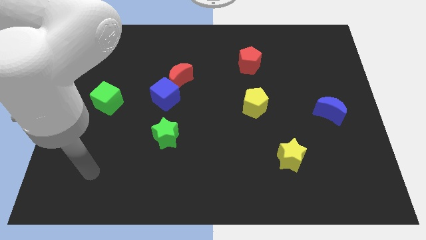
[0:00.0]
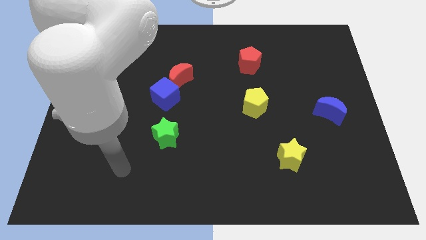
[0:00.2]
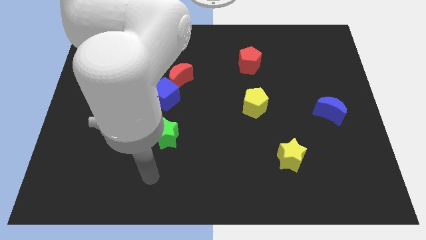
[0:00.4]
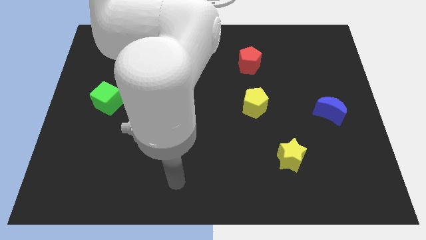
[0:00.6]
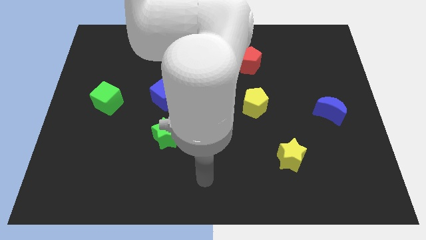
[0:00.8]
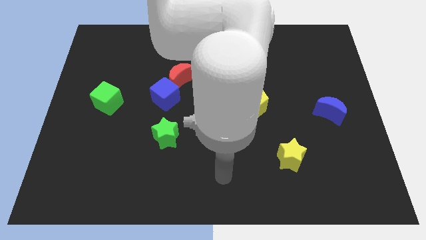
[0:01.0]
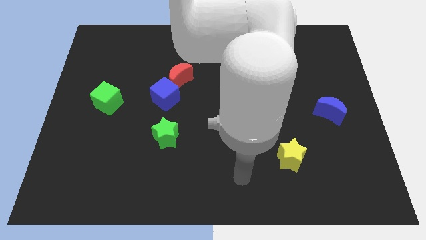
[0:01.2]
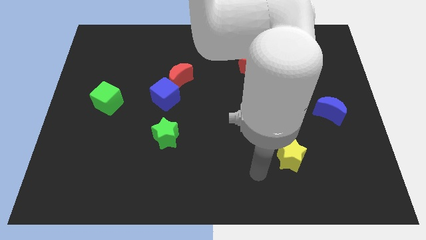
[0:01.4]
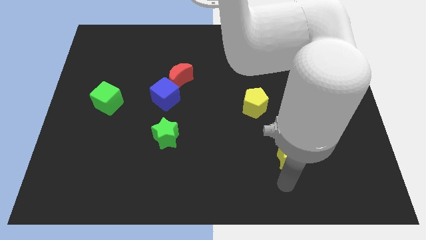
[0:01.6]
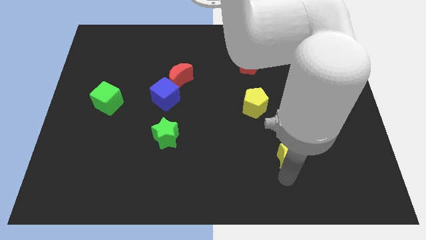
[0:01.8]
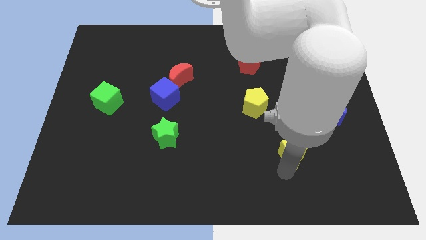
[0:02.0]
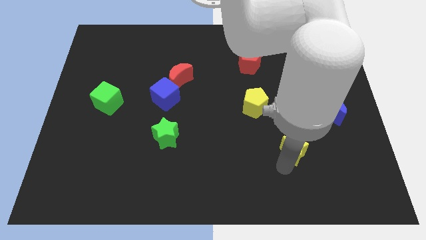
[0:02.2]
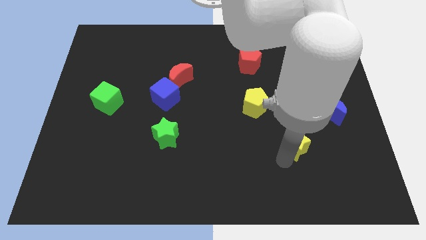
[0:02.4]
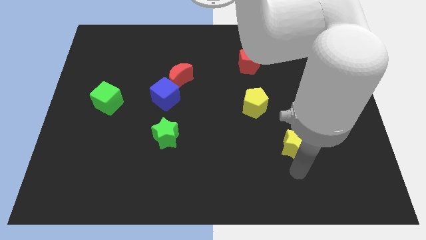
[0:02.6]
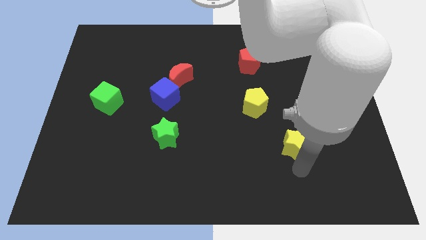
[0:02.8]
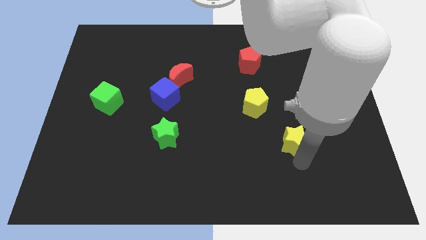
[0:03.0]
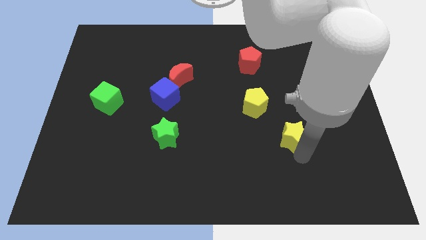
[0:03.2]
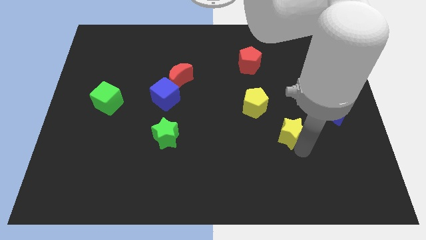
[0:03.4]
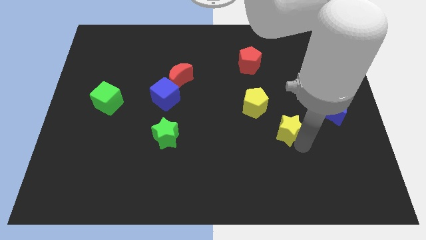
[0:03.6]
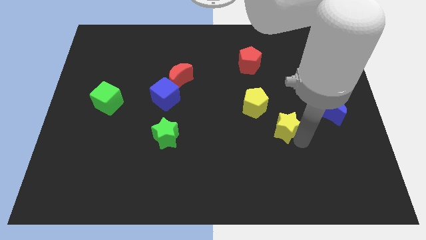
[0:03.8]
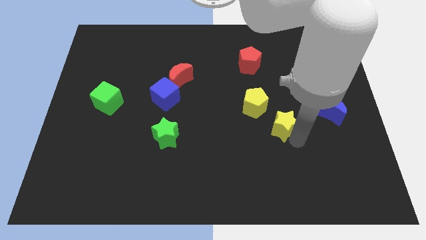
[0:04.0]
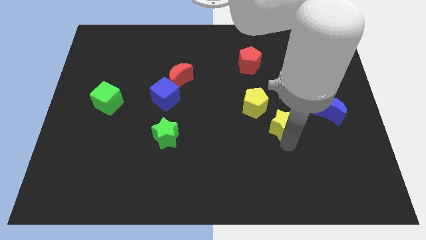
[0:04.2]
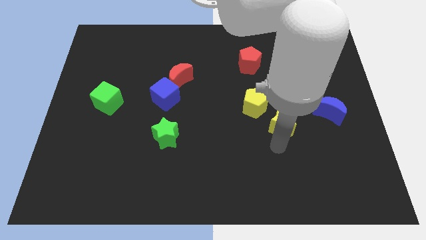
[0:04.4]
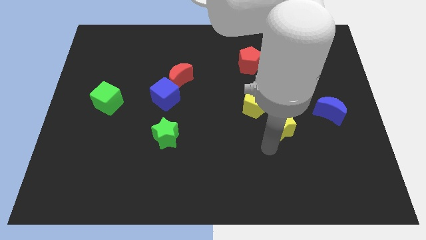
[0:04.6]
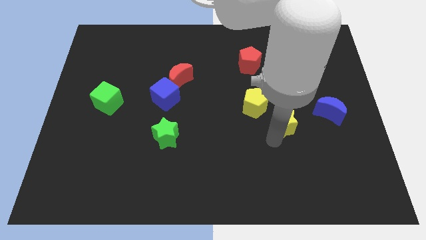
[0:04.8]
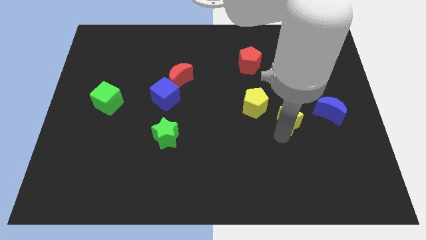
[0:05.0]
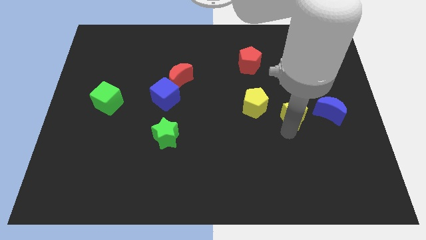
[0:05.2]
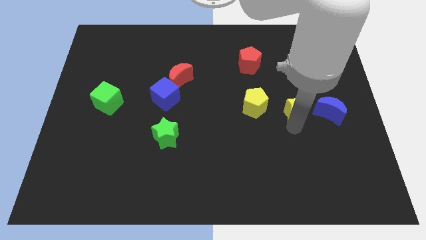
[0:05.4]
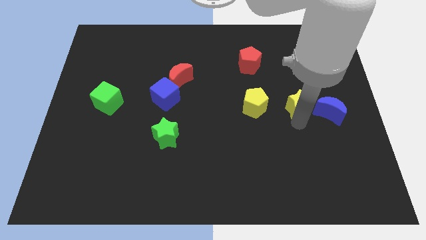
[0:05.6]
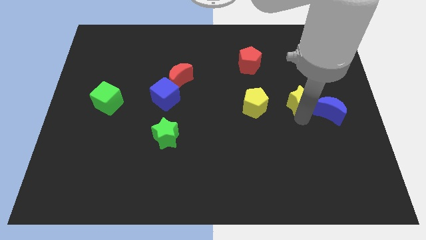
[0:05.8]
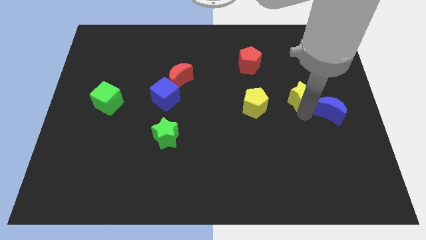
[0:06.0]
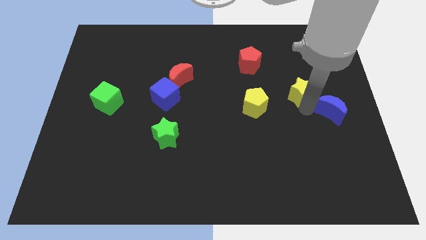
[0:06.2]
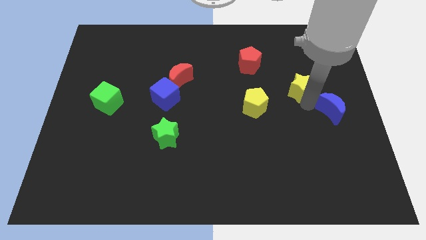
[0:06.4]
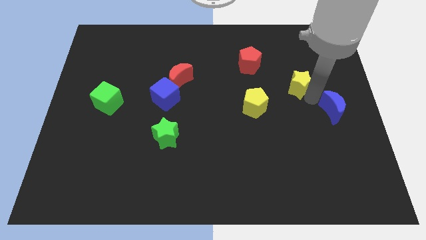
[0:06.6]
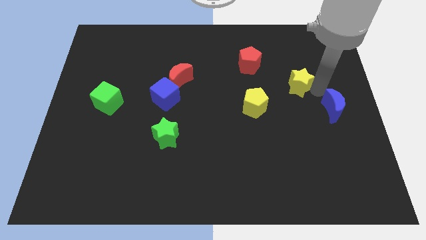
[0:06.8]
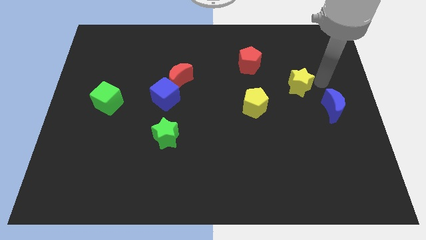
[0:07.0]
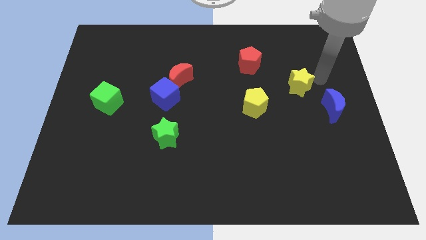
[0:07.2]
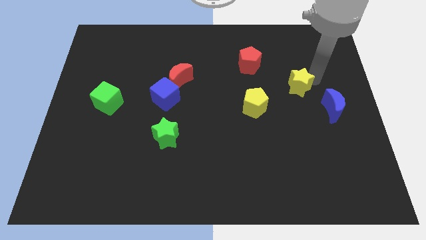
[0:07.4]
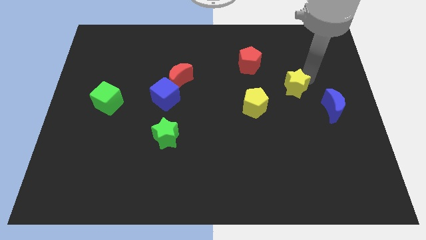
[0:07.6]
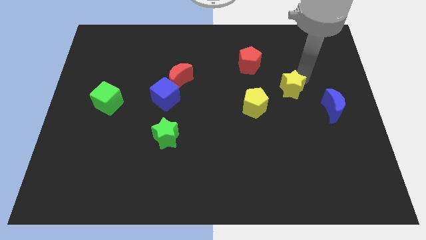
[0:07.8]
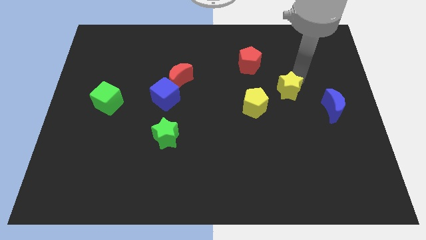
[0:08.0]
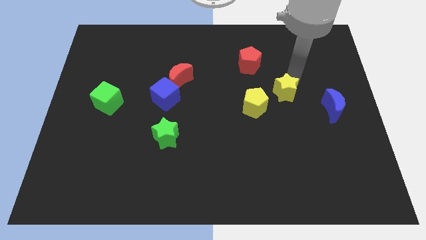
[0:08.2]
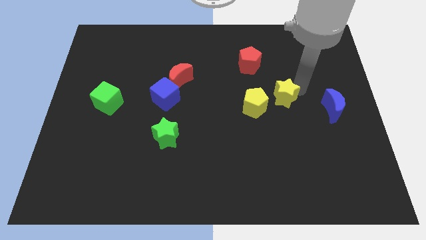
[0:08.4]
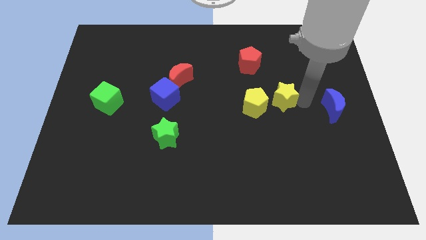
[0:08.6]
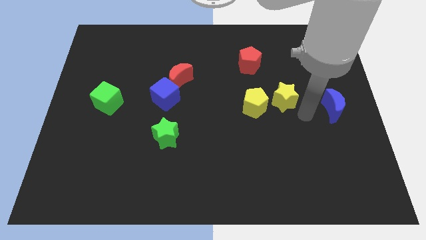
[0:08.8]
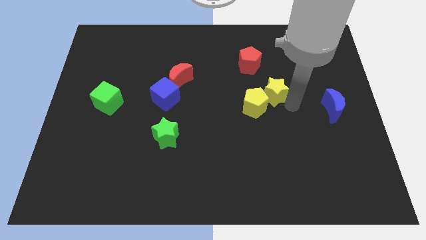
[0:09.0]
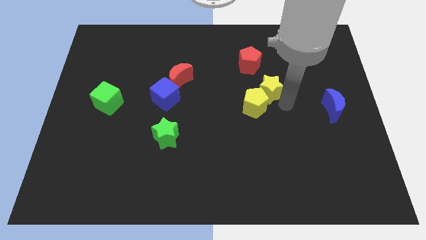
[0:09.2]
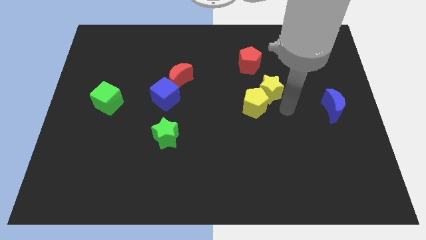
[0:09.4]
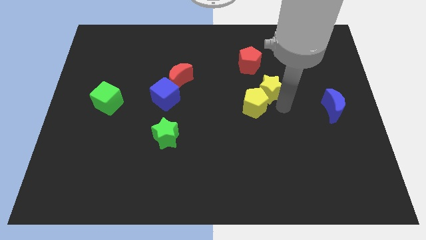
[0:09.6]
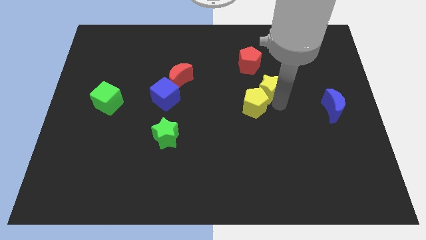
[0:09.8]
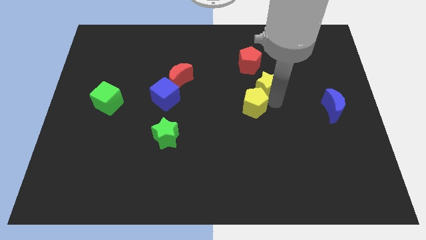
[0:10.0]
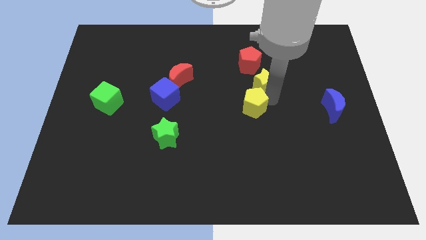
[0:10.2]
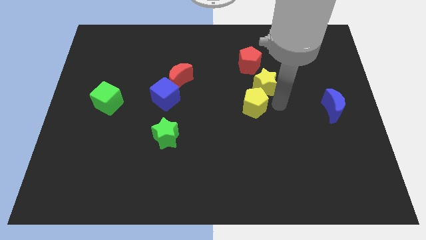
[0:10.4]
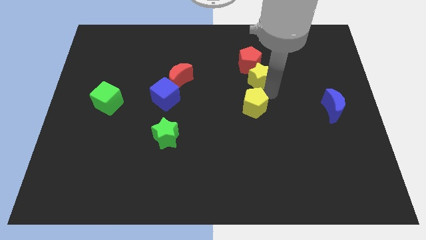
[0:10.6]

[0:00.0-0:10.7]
put the yellow star close to the red pentagon

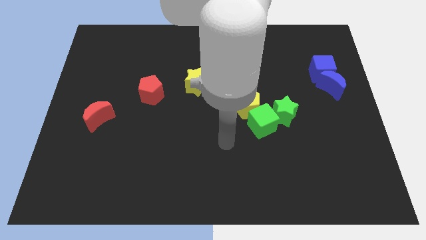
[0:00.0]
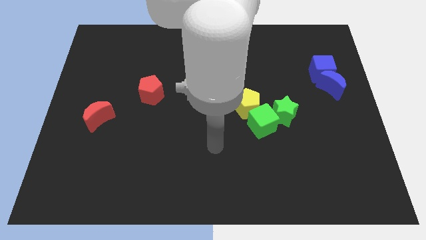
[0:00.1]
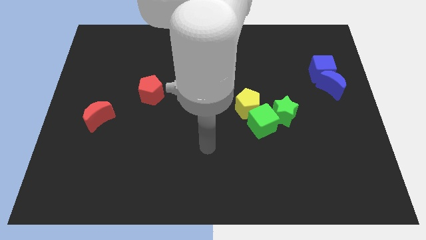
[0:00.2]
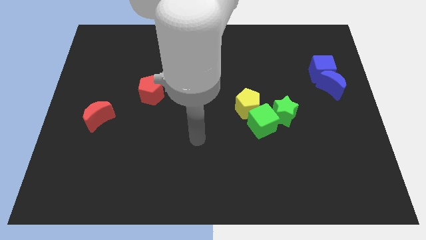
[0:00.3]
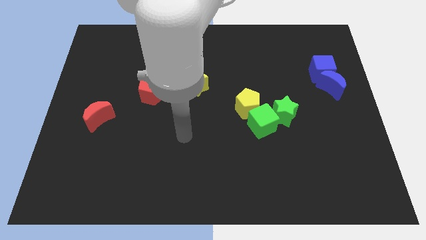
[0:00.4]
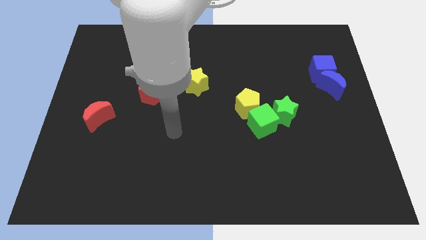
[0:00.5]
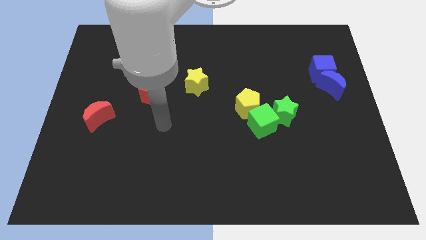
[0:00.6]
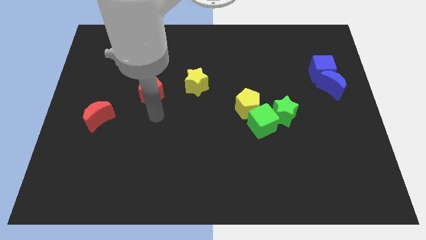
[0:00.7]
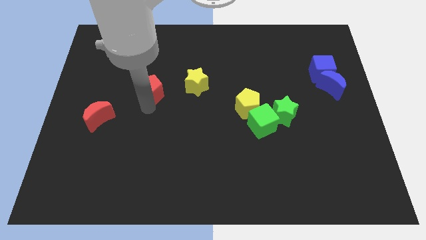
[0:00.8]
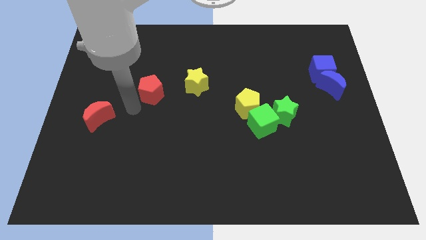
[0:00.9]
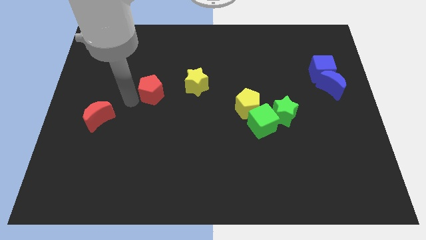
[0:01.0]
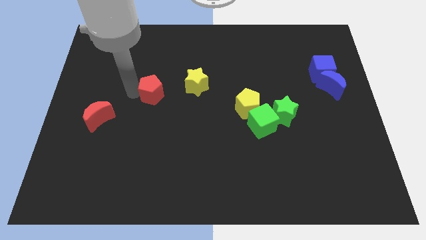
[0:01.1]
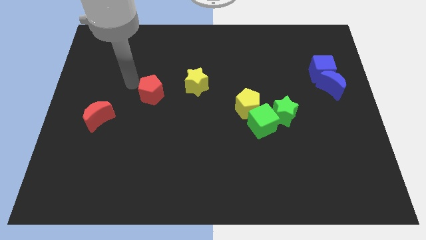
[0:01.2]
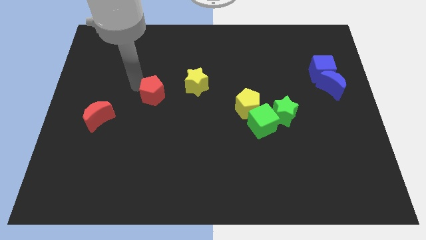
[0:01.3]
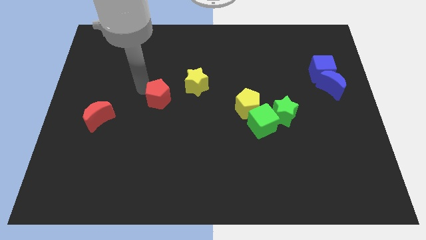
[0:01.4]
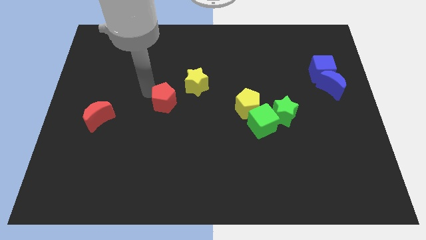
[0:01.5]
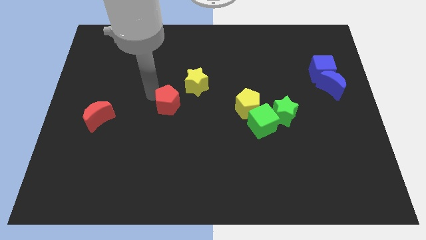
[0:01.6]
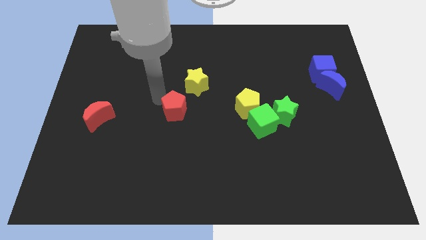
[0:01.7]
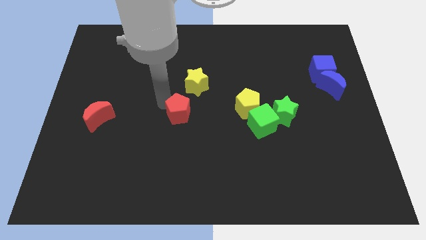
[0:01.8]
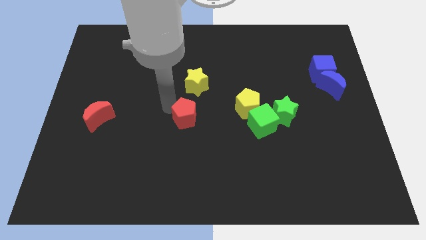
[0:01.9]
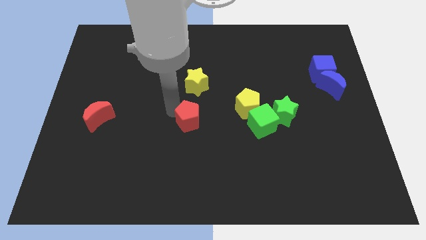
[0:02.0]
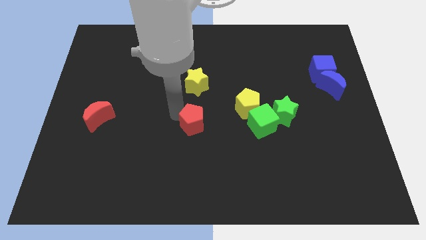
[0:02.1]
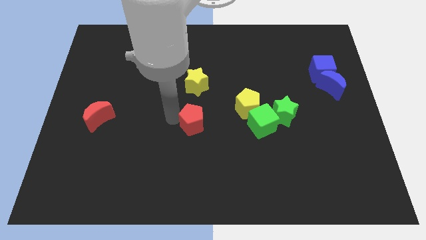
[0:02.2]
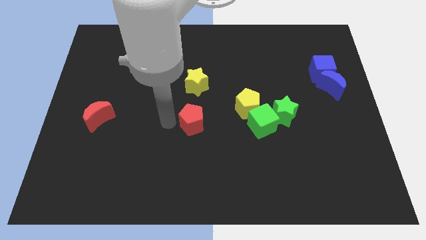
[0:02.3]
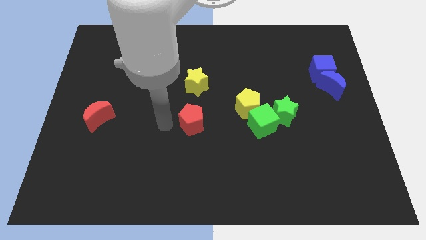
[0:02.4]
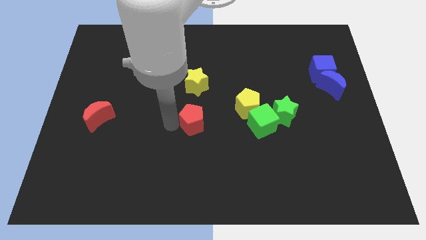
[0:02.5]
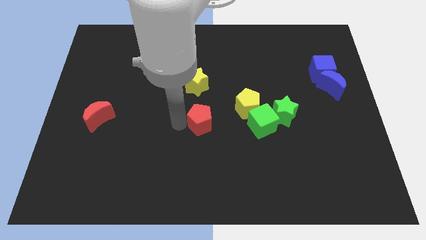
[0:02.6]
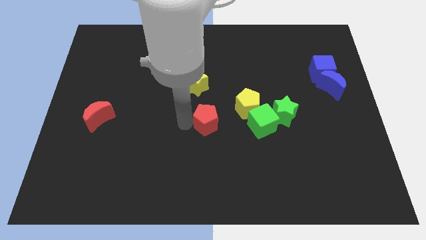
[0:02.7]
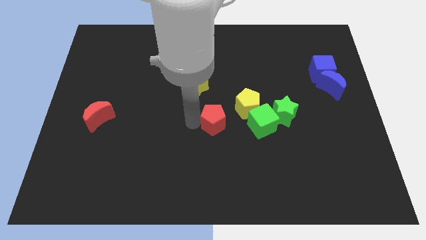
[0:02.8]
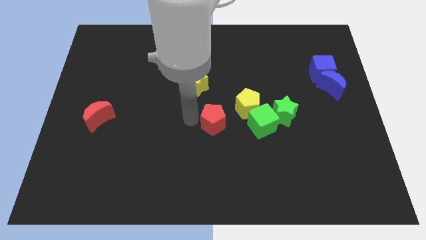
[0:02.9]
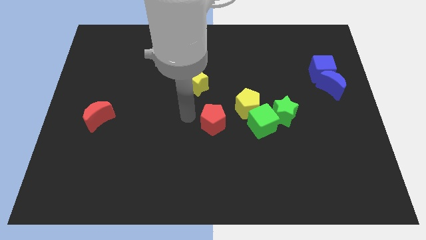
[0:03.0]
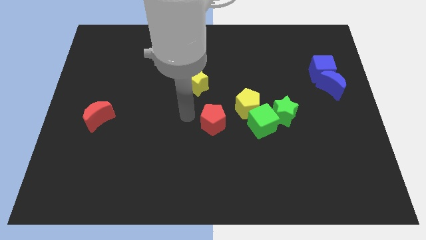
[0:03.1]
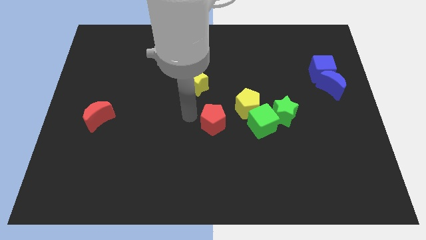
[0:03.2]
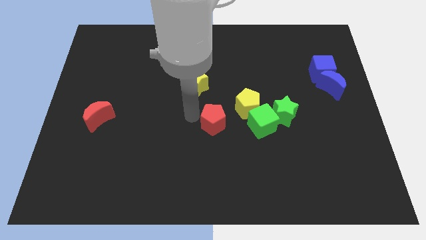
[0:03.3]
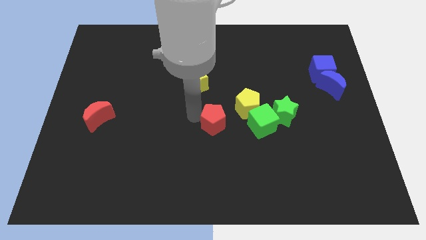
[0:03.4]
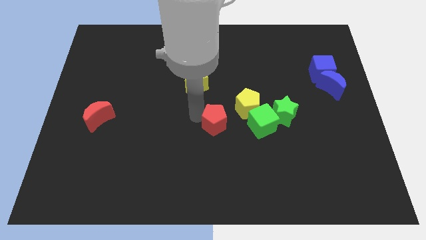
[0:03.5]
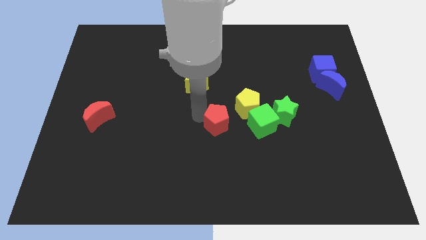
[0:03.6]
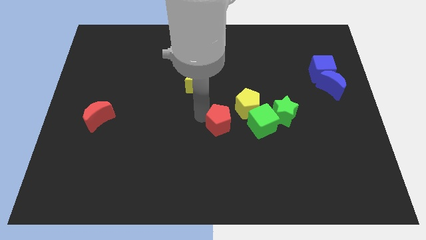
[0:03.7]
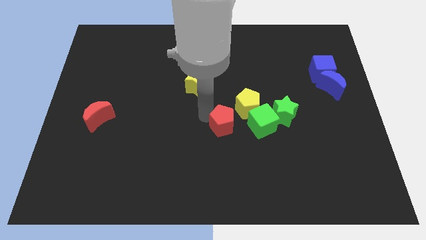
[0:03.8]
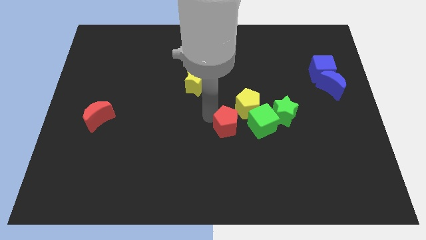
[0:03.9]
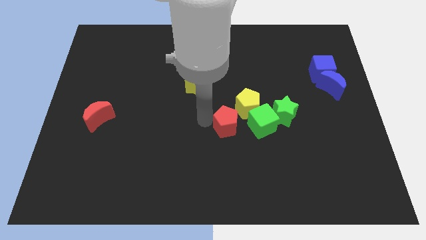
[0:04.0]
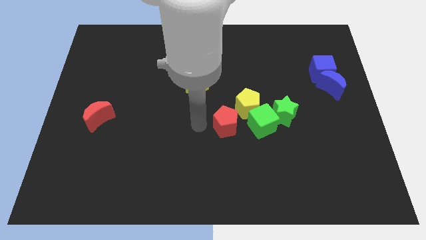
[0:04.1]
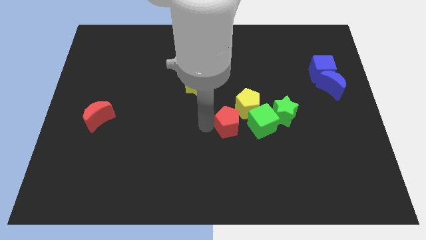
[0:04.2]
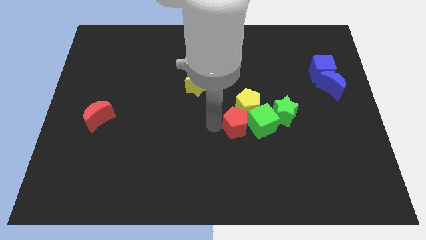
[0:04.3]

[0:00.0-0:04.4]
move the red pentagon towards the green cube
